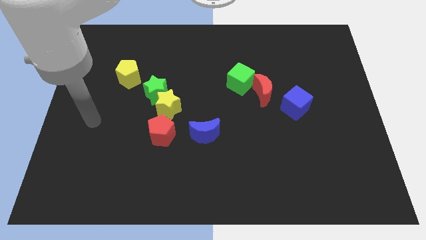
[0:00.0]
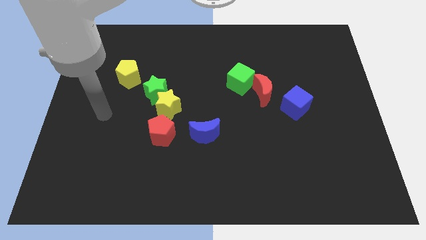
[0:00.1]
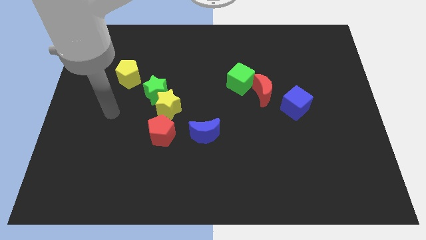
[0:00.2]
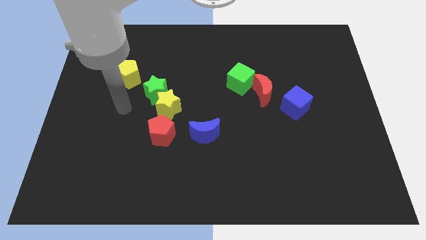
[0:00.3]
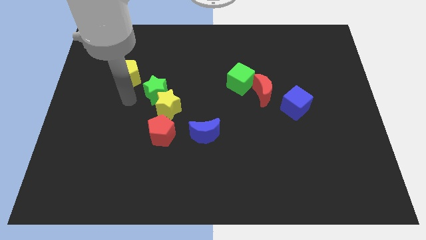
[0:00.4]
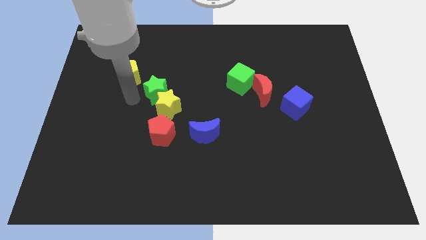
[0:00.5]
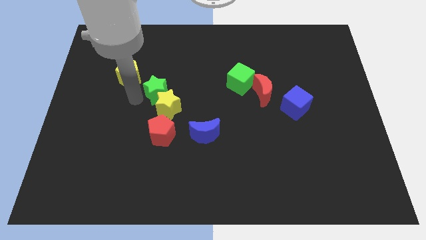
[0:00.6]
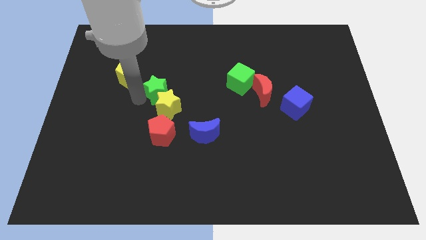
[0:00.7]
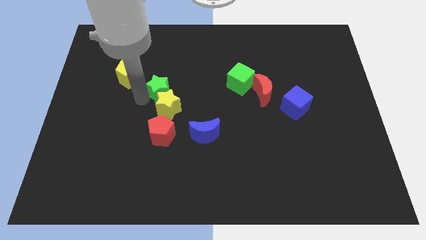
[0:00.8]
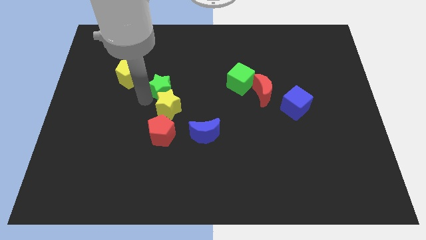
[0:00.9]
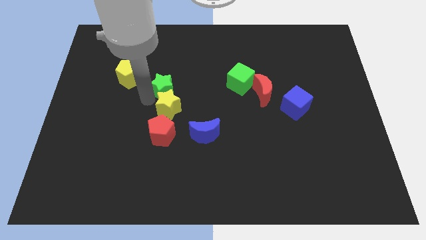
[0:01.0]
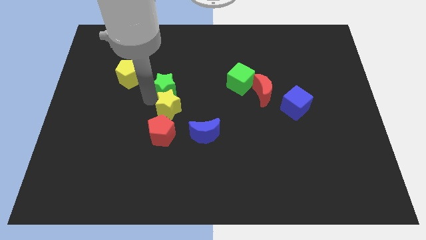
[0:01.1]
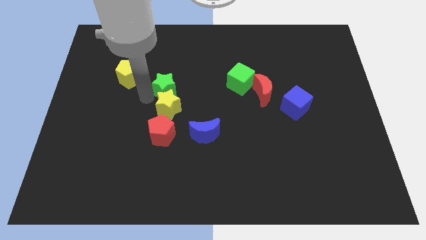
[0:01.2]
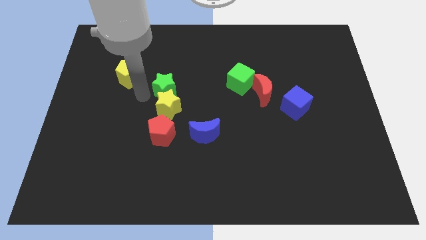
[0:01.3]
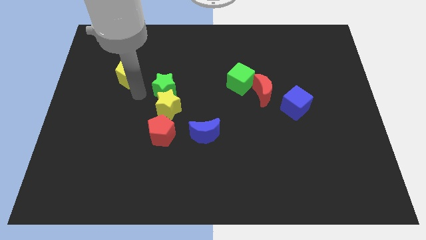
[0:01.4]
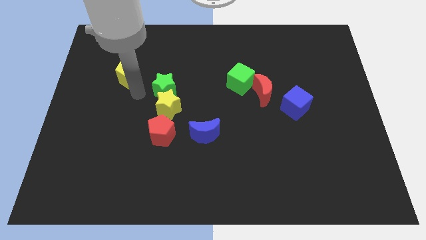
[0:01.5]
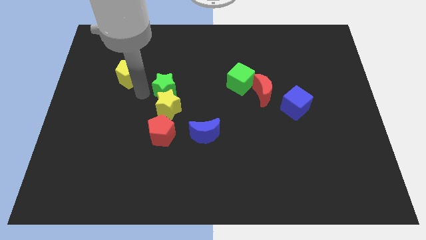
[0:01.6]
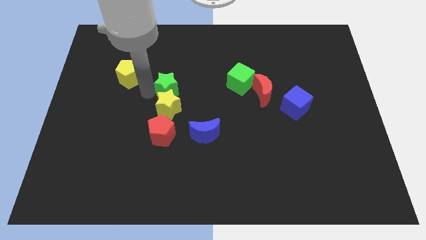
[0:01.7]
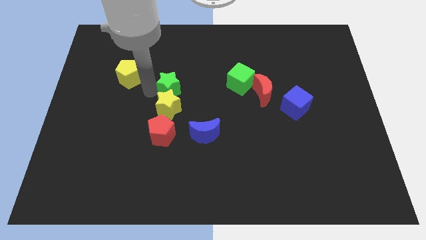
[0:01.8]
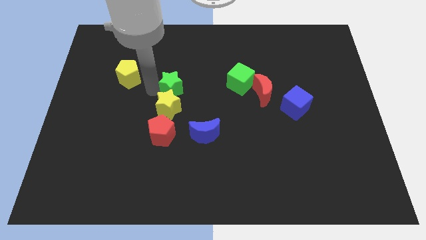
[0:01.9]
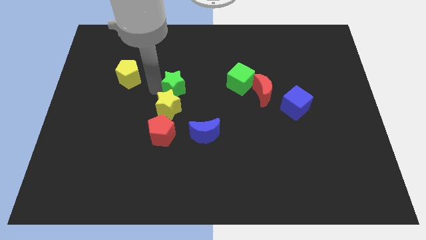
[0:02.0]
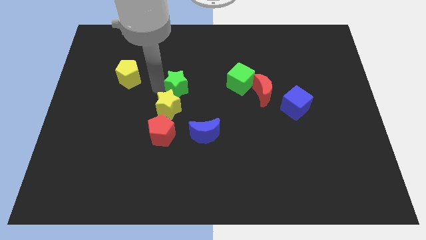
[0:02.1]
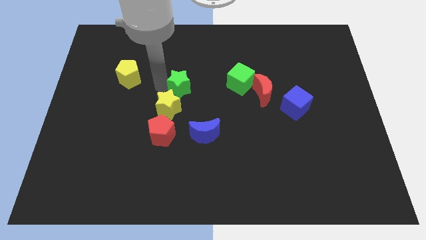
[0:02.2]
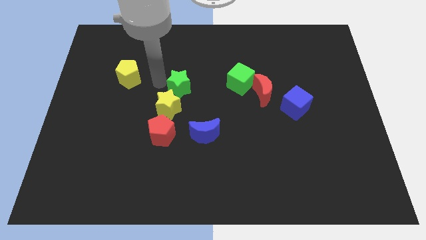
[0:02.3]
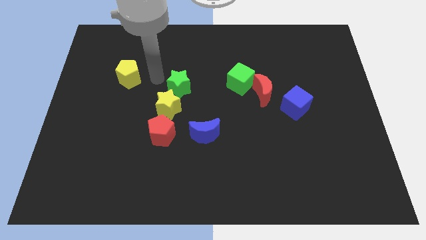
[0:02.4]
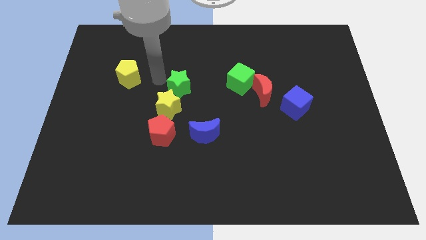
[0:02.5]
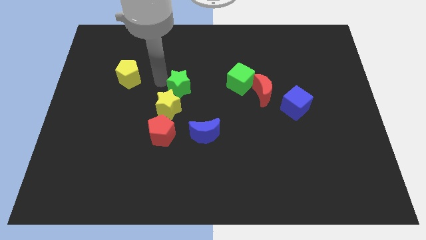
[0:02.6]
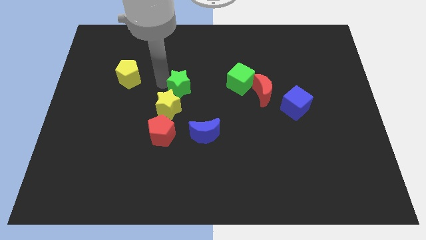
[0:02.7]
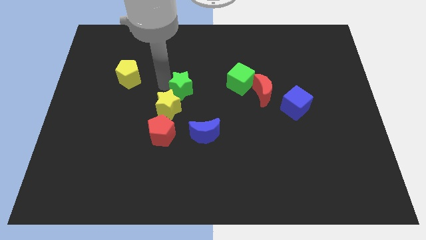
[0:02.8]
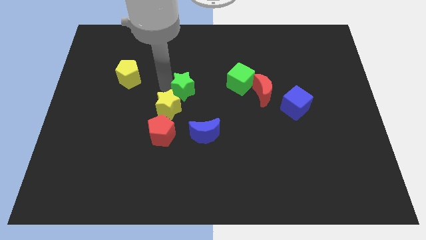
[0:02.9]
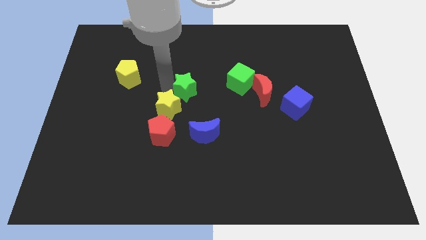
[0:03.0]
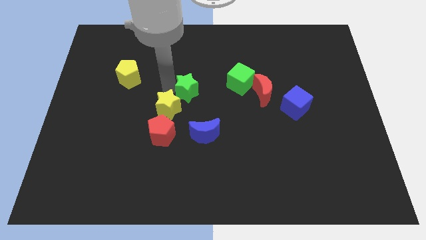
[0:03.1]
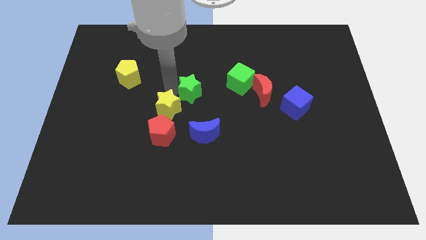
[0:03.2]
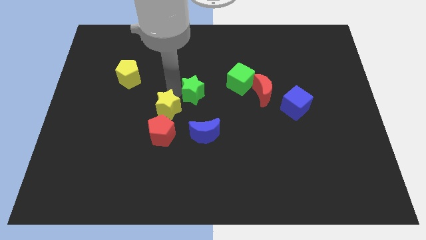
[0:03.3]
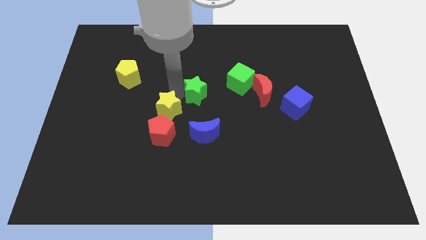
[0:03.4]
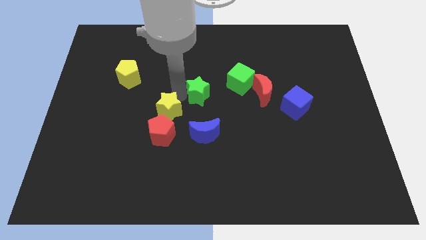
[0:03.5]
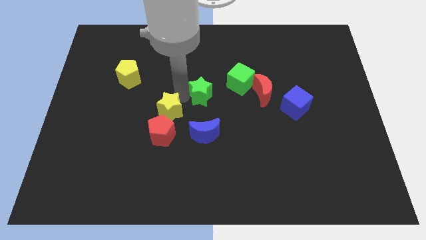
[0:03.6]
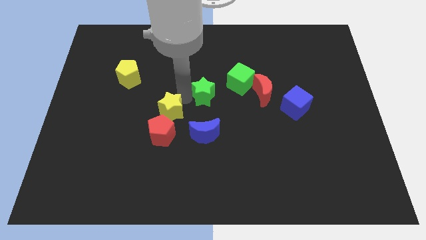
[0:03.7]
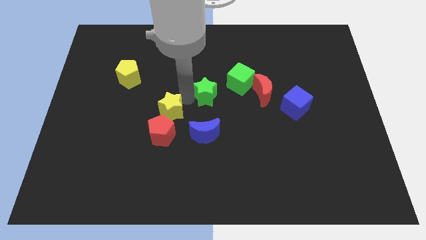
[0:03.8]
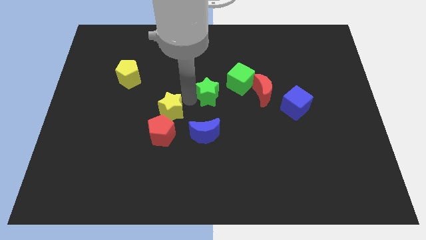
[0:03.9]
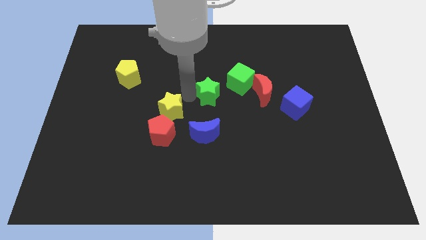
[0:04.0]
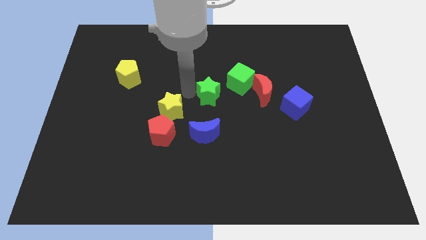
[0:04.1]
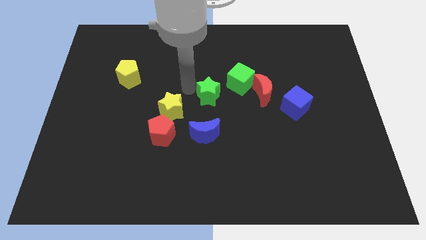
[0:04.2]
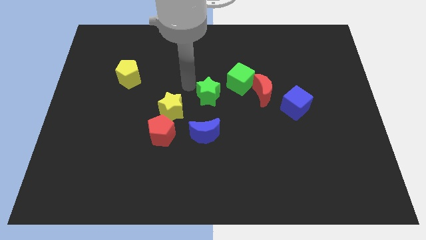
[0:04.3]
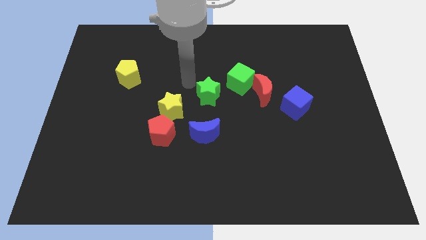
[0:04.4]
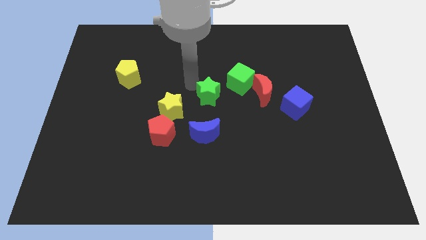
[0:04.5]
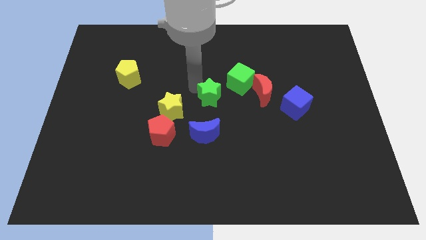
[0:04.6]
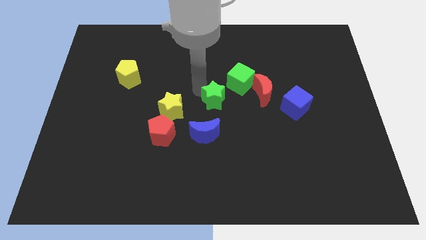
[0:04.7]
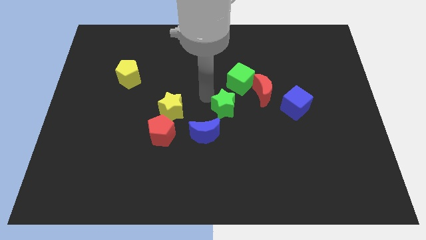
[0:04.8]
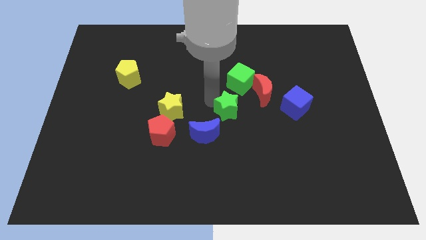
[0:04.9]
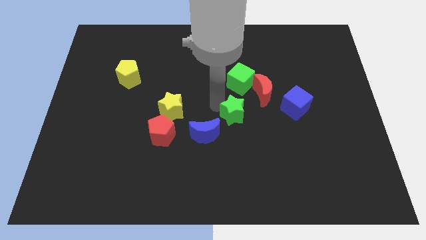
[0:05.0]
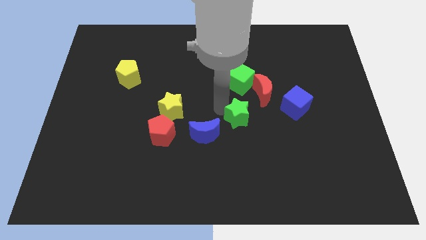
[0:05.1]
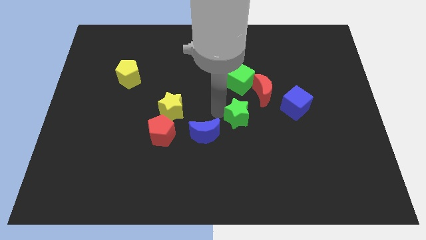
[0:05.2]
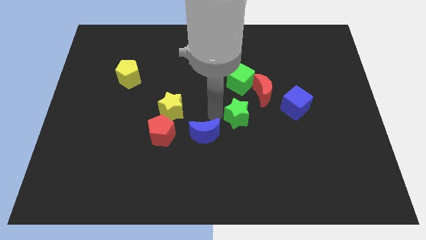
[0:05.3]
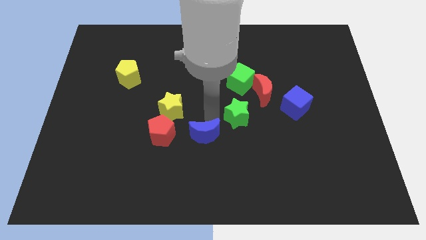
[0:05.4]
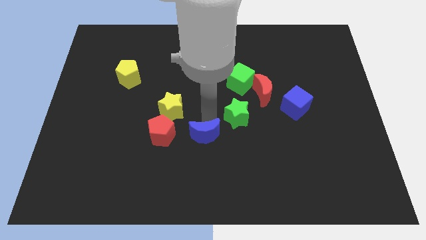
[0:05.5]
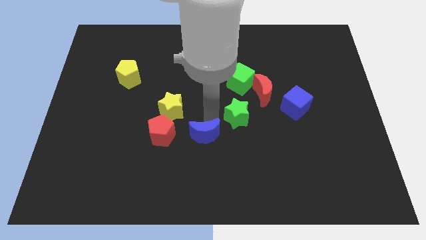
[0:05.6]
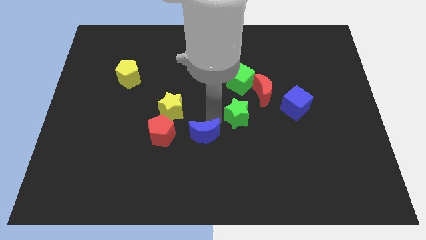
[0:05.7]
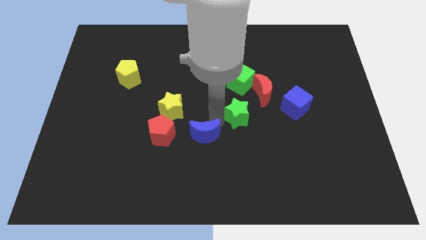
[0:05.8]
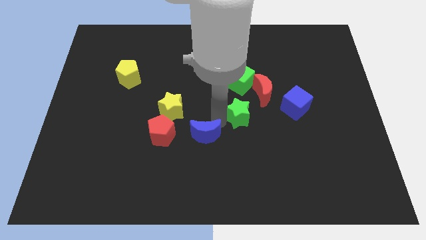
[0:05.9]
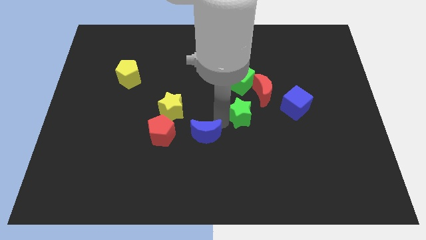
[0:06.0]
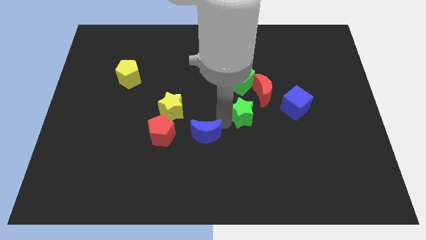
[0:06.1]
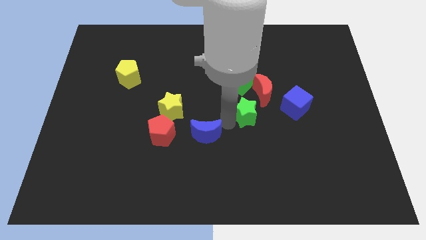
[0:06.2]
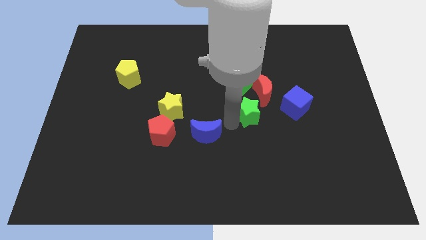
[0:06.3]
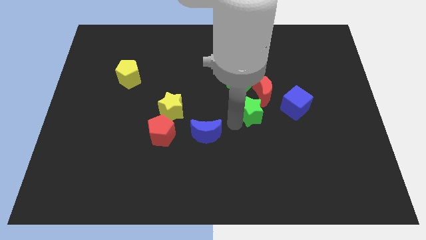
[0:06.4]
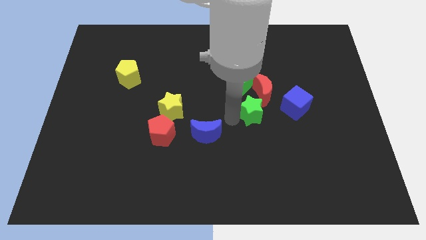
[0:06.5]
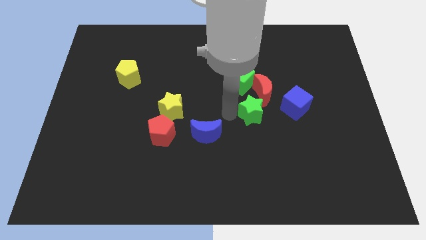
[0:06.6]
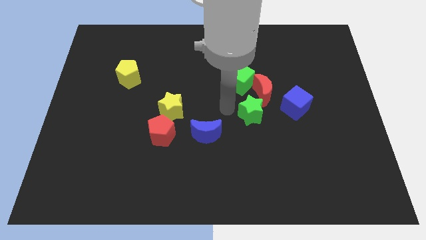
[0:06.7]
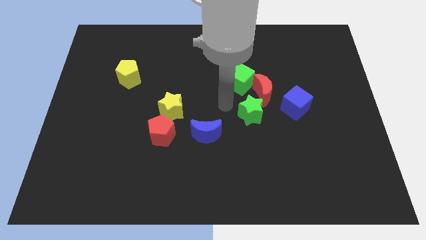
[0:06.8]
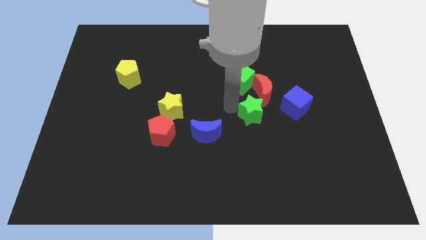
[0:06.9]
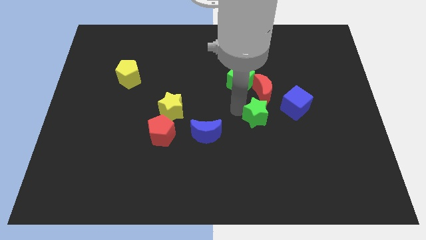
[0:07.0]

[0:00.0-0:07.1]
push the green star to the bottom left side of the blue cube

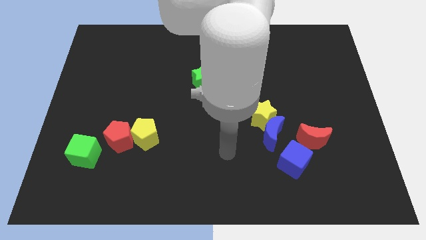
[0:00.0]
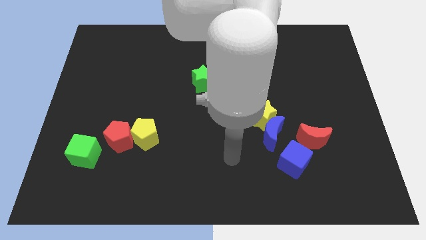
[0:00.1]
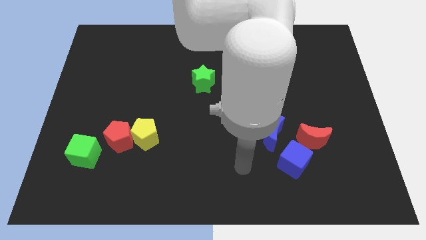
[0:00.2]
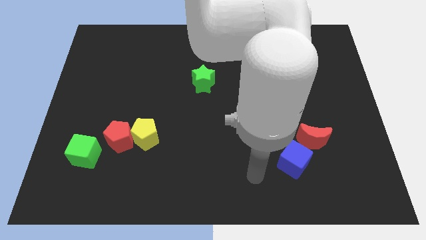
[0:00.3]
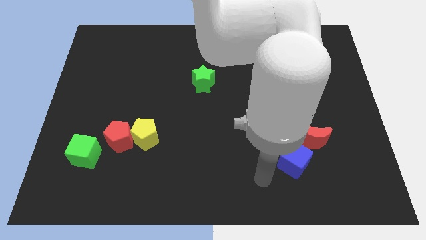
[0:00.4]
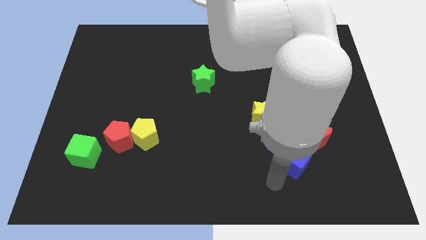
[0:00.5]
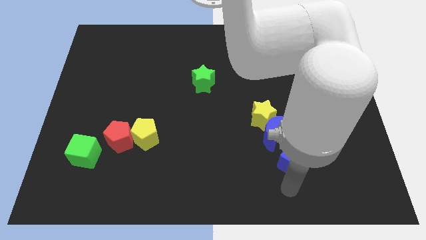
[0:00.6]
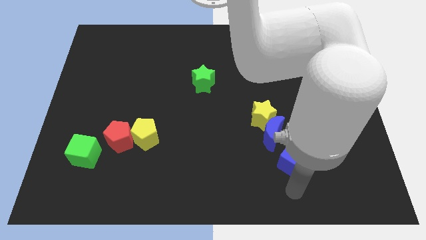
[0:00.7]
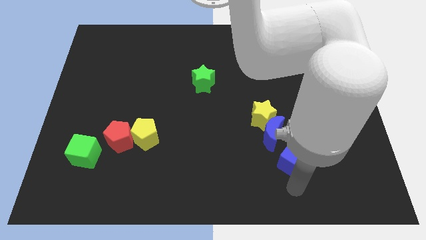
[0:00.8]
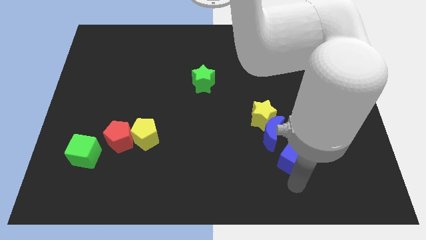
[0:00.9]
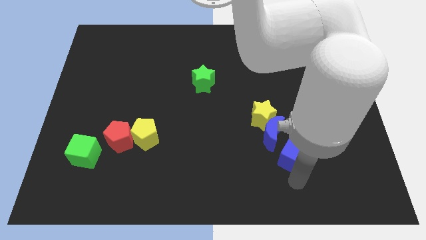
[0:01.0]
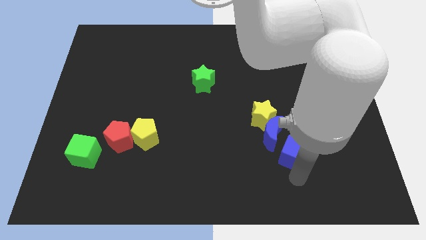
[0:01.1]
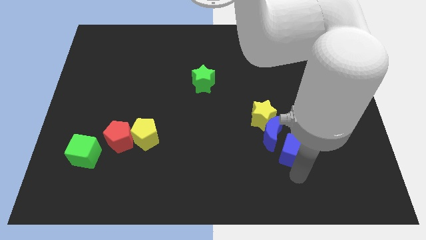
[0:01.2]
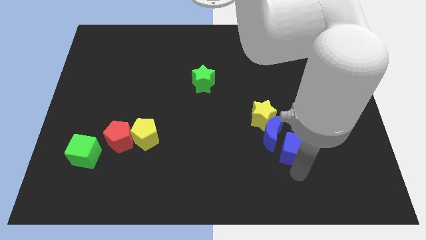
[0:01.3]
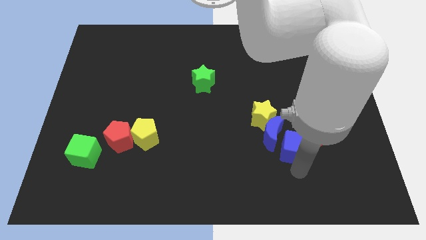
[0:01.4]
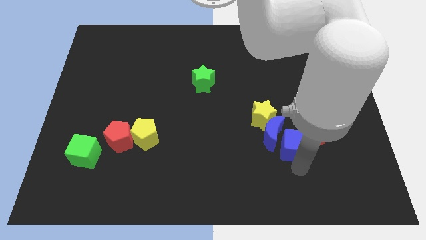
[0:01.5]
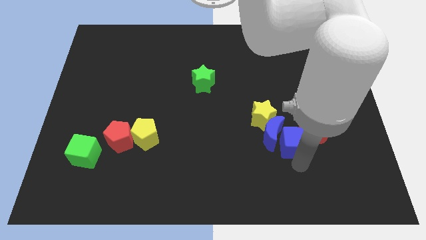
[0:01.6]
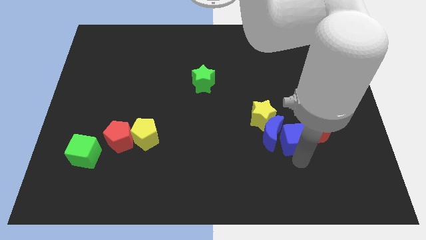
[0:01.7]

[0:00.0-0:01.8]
move the blue cube to the top right side of the blue moon
